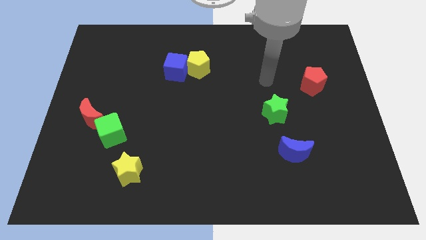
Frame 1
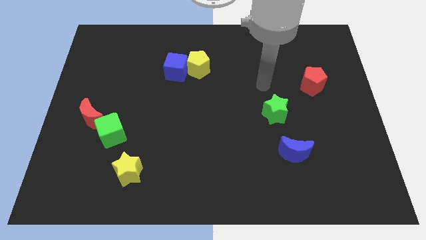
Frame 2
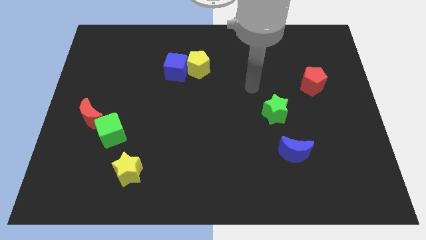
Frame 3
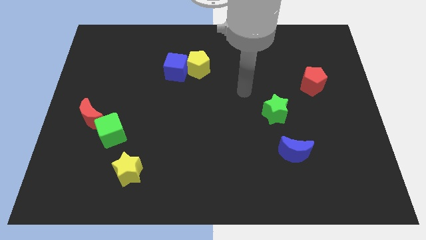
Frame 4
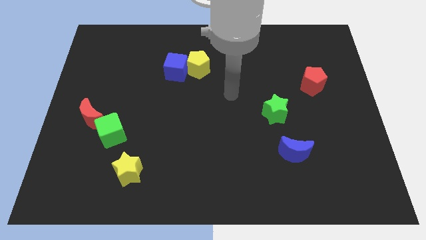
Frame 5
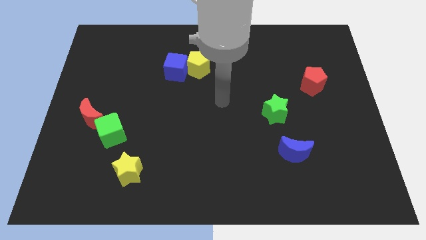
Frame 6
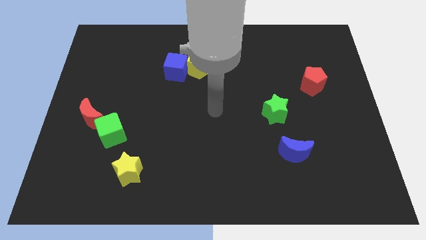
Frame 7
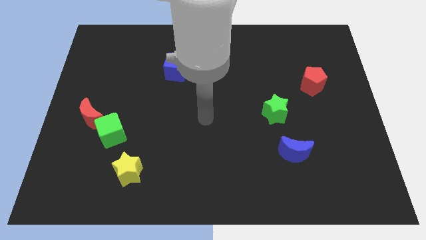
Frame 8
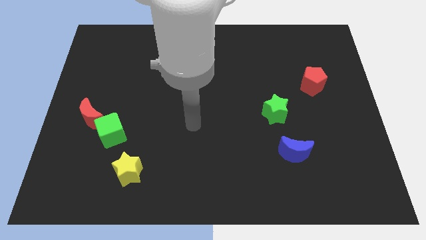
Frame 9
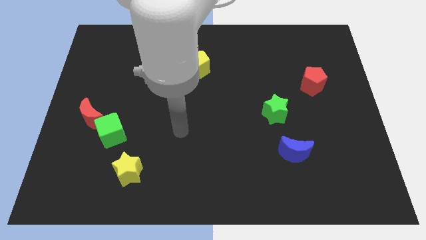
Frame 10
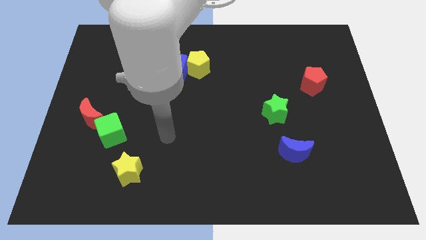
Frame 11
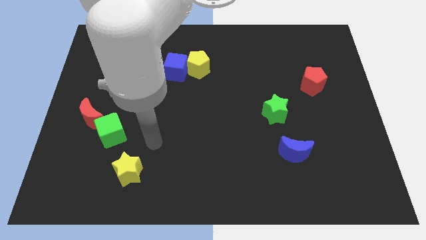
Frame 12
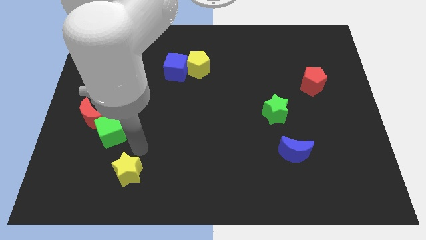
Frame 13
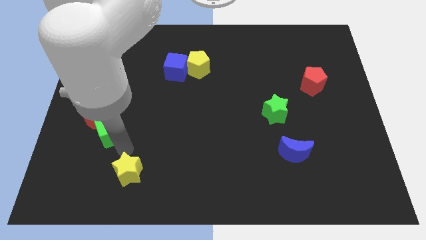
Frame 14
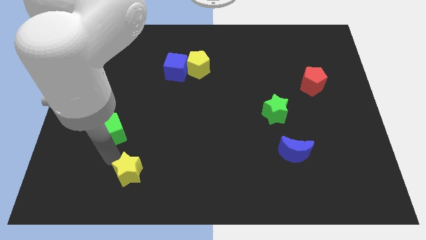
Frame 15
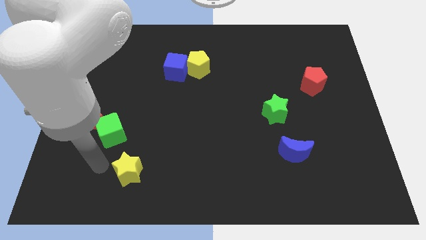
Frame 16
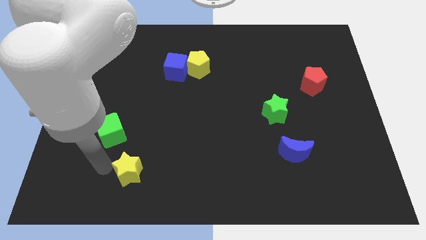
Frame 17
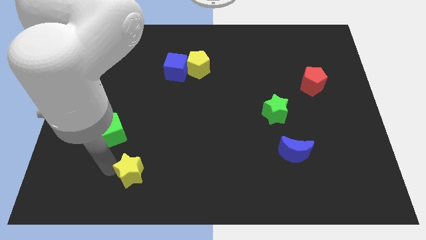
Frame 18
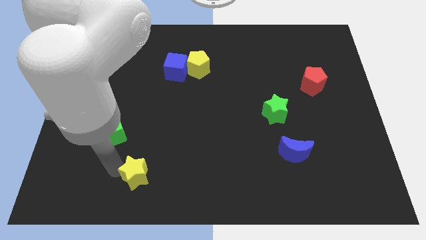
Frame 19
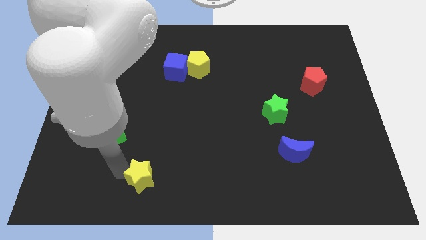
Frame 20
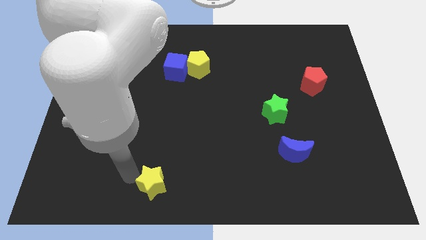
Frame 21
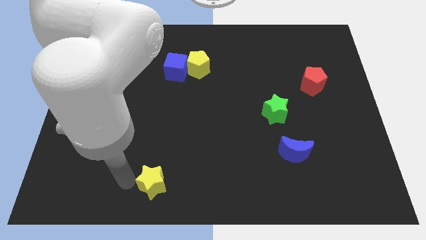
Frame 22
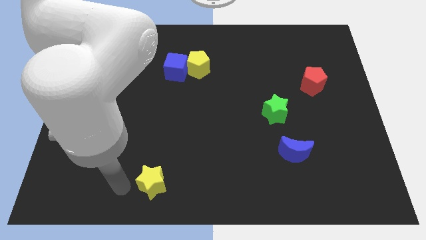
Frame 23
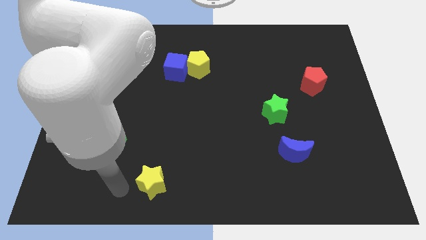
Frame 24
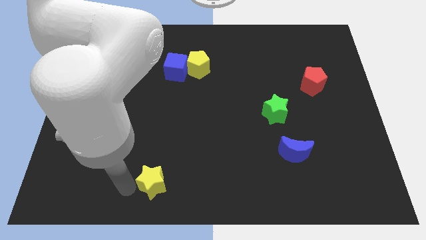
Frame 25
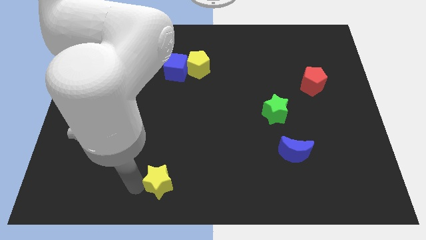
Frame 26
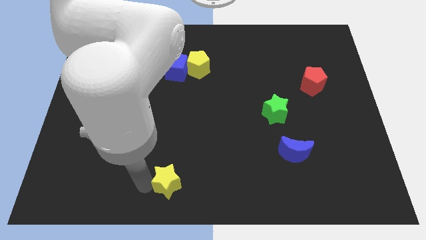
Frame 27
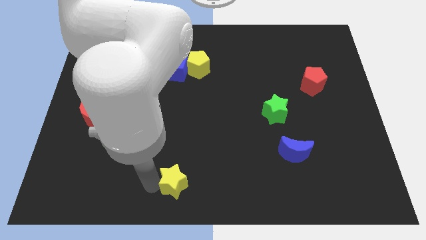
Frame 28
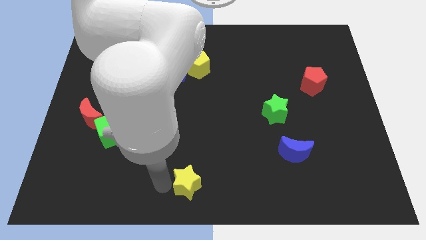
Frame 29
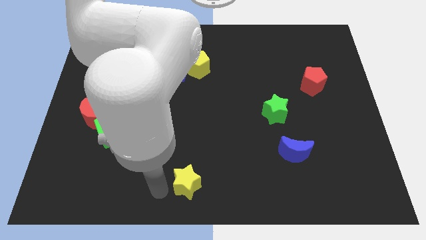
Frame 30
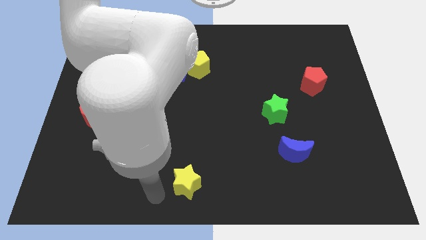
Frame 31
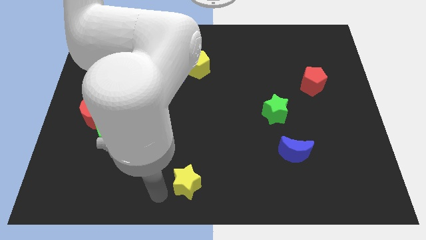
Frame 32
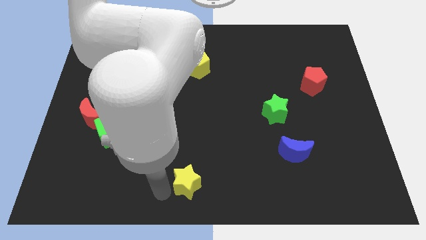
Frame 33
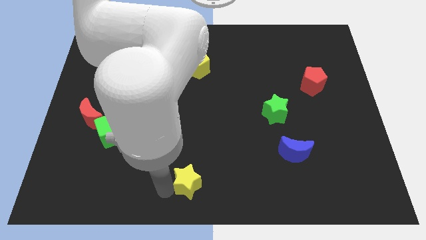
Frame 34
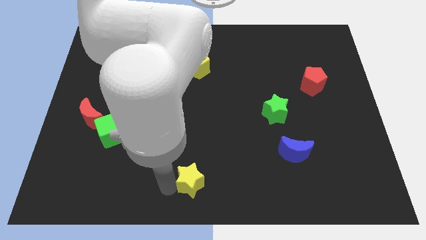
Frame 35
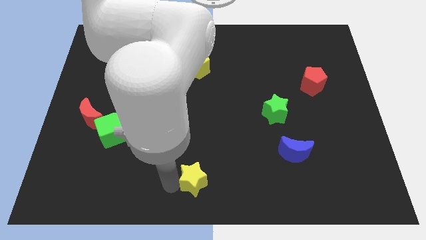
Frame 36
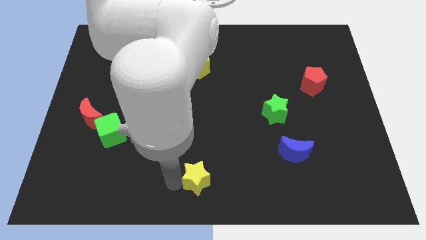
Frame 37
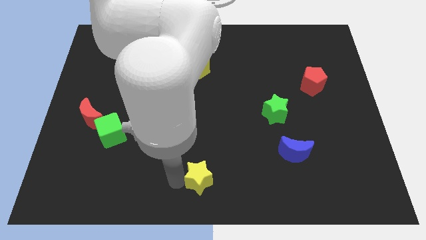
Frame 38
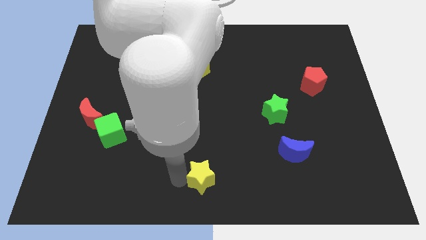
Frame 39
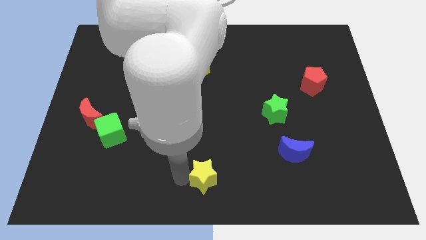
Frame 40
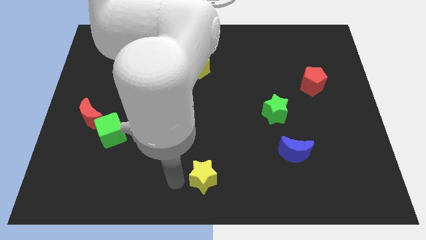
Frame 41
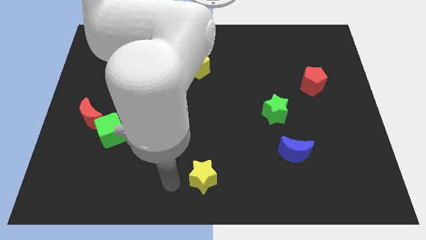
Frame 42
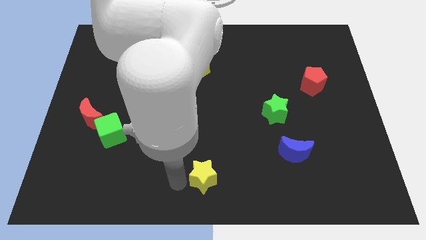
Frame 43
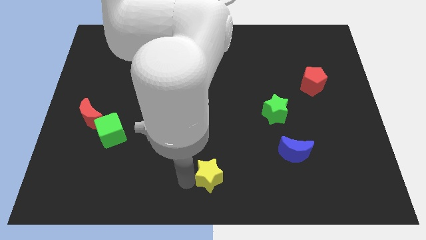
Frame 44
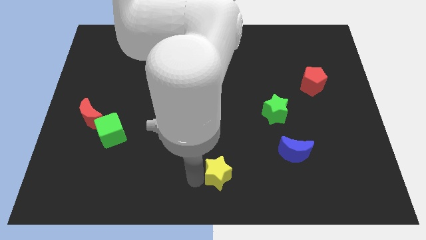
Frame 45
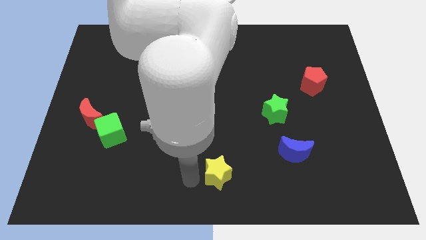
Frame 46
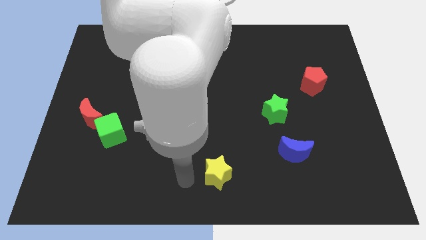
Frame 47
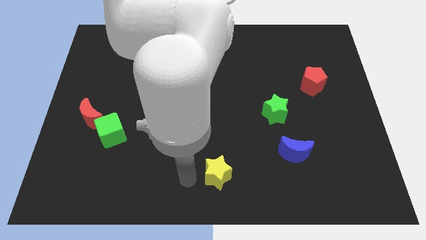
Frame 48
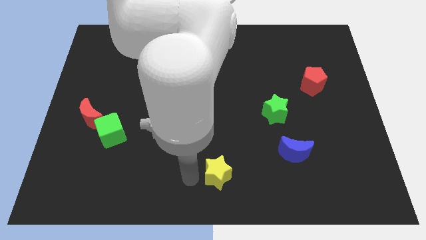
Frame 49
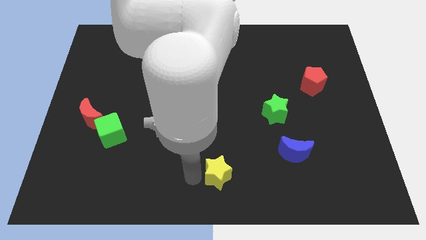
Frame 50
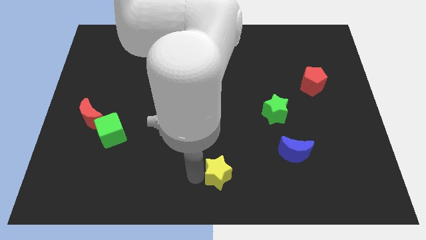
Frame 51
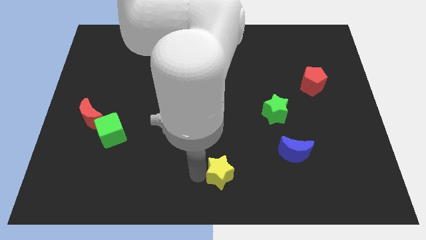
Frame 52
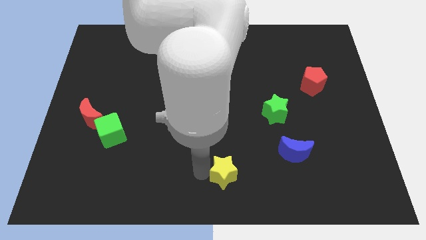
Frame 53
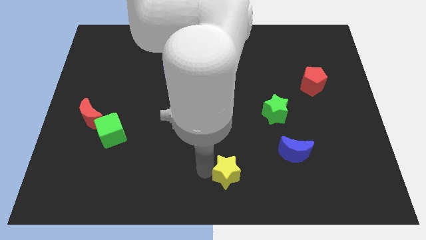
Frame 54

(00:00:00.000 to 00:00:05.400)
push the yellow star right

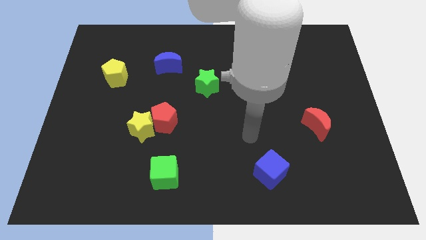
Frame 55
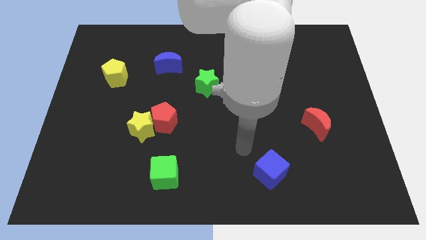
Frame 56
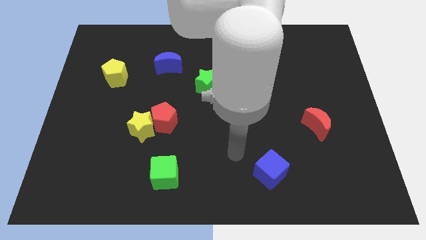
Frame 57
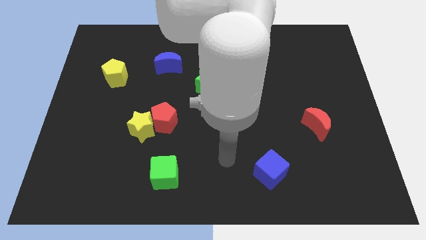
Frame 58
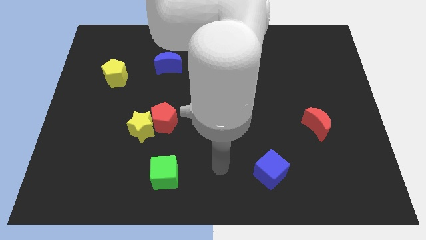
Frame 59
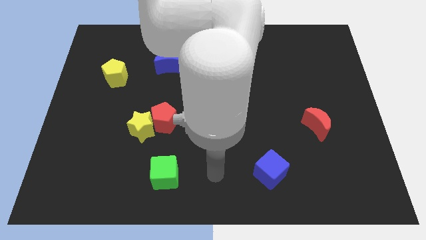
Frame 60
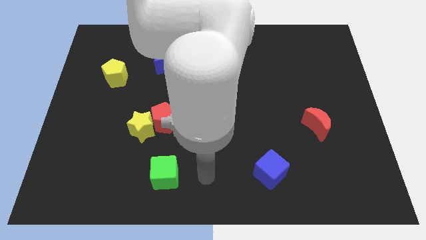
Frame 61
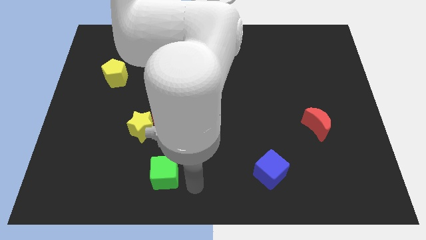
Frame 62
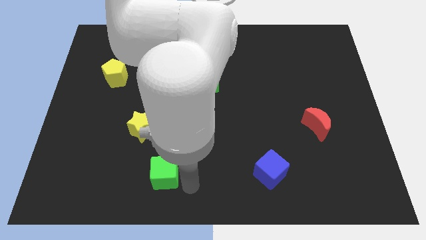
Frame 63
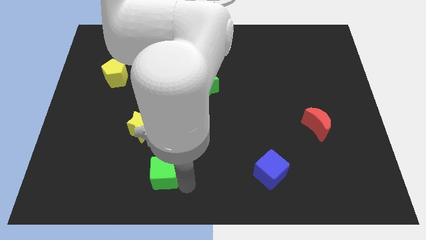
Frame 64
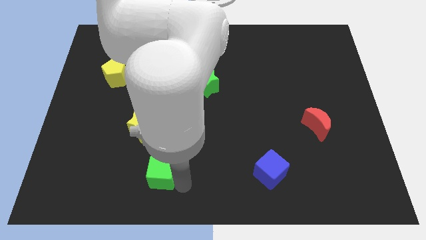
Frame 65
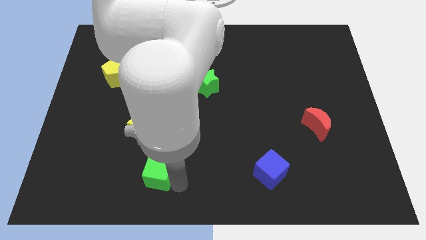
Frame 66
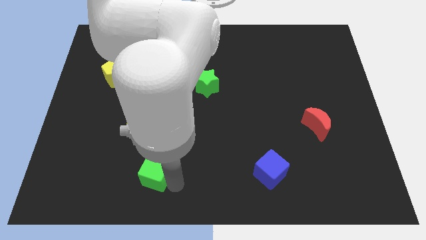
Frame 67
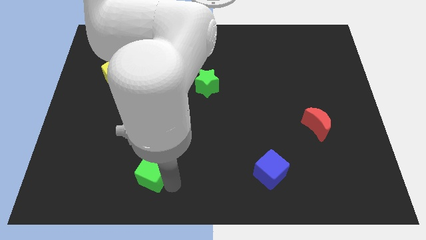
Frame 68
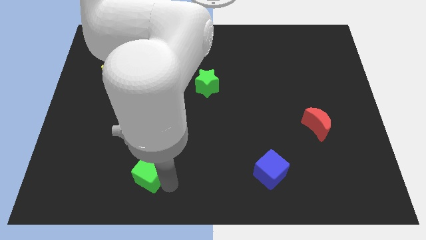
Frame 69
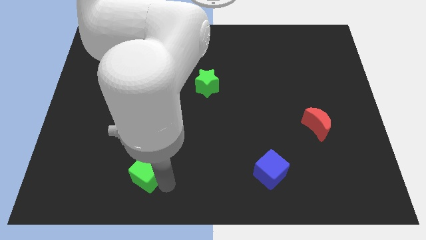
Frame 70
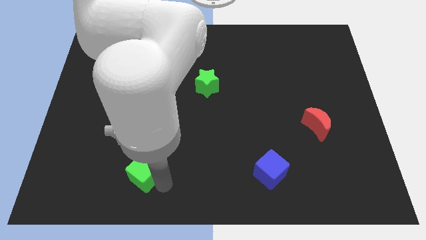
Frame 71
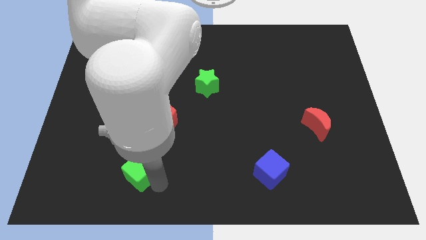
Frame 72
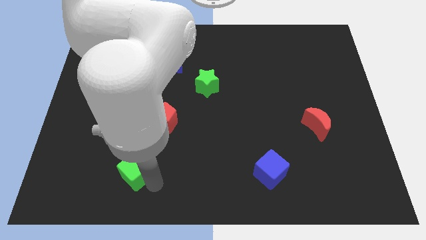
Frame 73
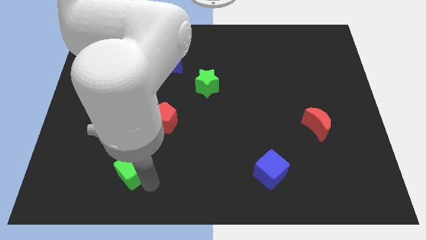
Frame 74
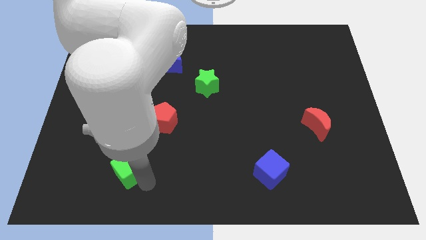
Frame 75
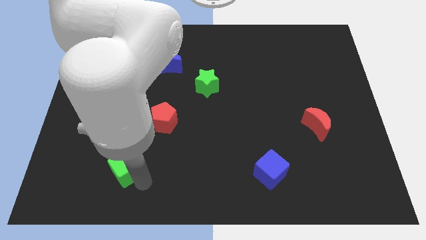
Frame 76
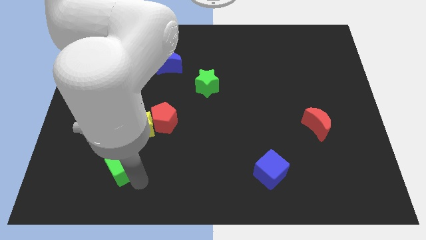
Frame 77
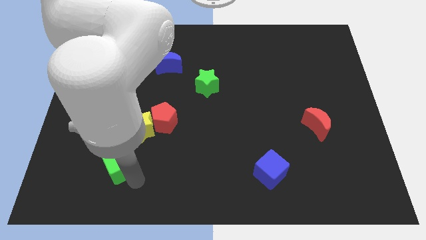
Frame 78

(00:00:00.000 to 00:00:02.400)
move the green cube diagonally up and to the left a little bit
